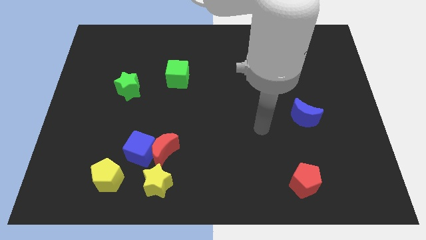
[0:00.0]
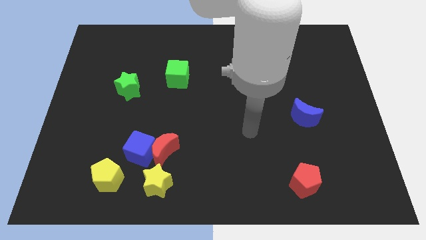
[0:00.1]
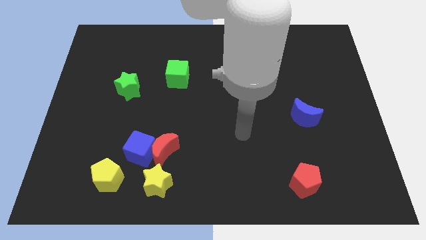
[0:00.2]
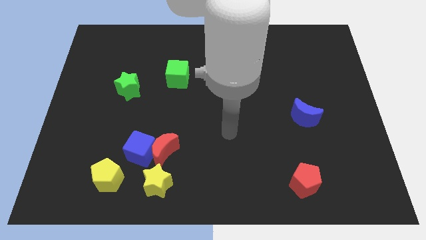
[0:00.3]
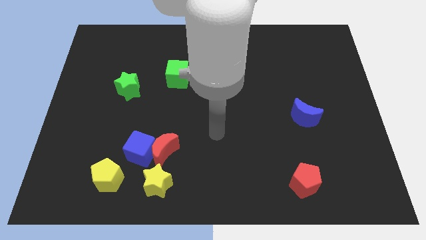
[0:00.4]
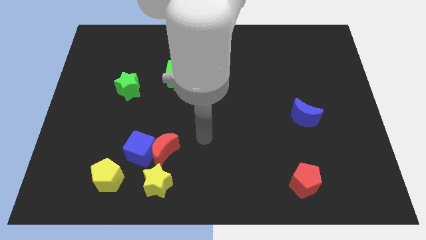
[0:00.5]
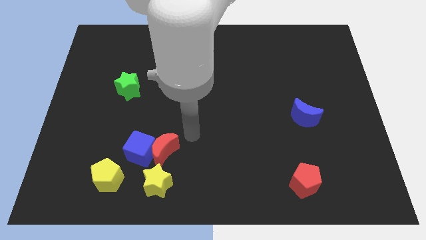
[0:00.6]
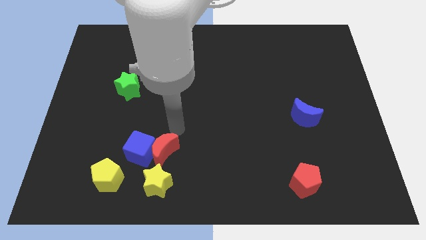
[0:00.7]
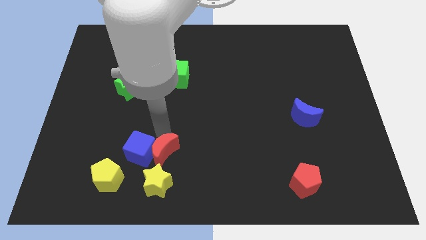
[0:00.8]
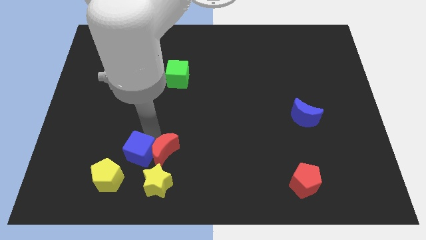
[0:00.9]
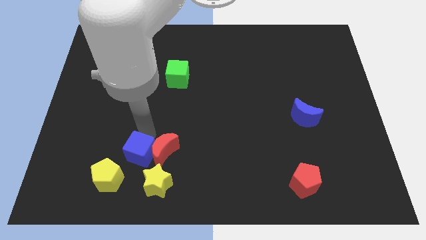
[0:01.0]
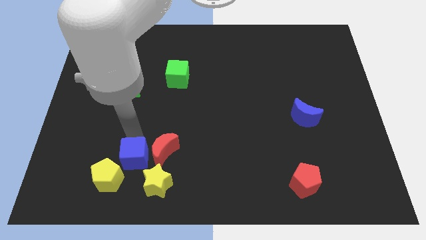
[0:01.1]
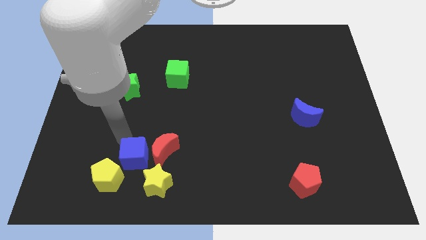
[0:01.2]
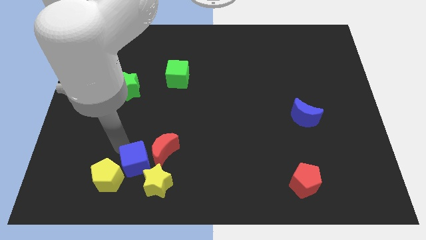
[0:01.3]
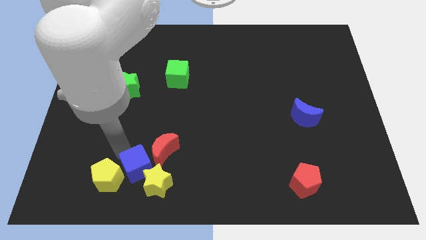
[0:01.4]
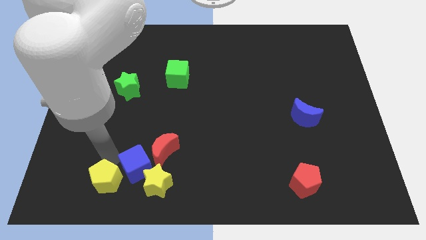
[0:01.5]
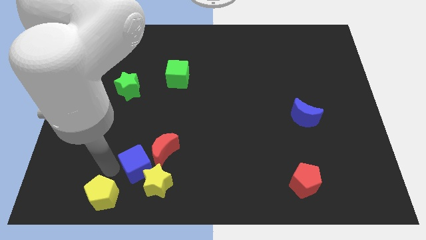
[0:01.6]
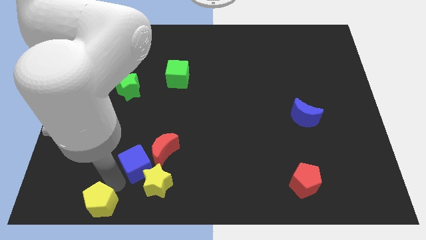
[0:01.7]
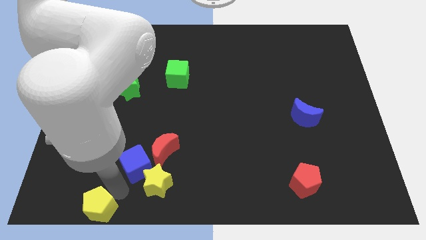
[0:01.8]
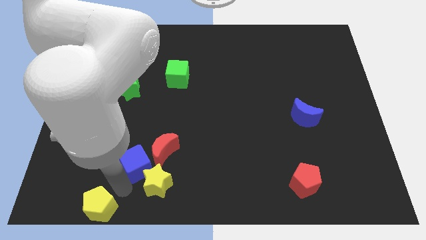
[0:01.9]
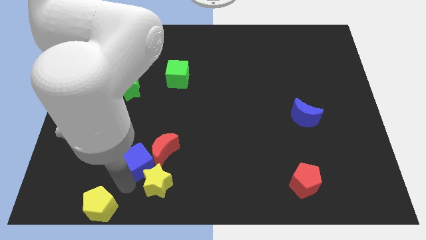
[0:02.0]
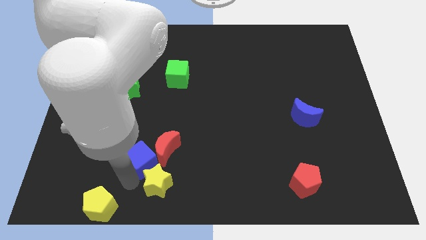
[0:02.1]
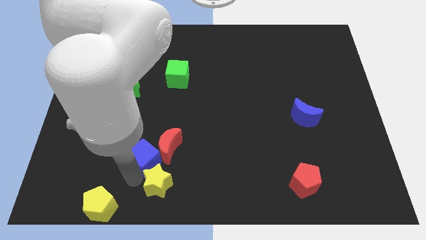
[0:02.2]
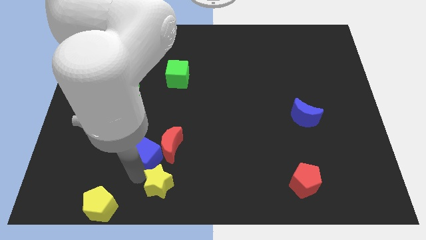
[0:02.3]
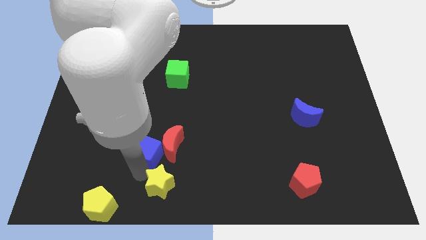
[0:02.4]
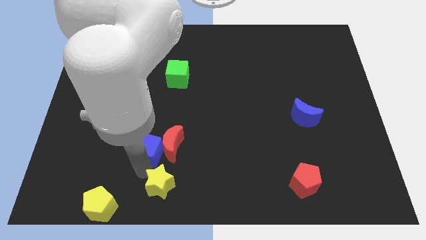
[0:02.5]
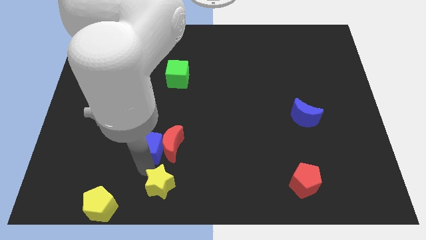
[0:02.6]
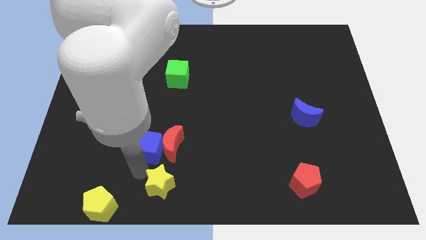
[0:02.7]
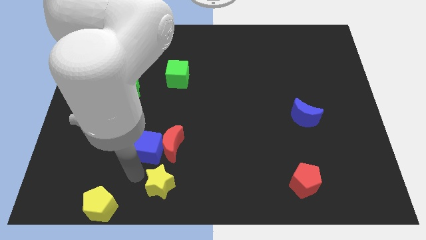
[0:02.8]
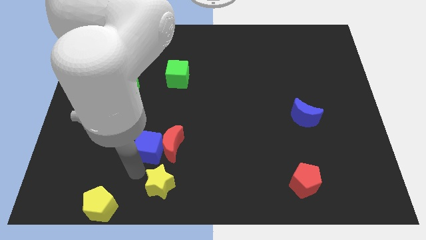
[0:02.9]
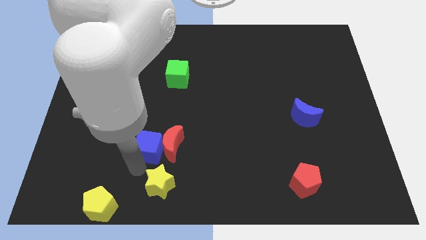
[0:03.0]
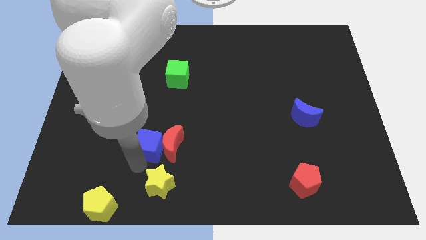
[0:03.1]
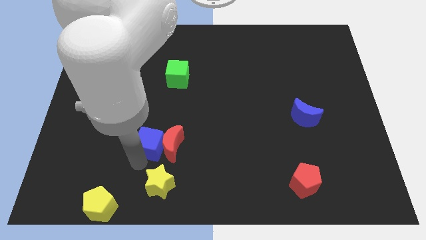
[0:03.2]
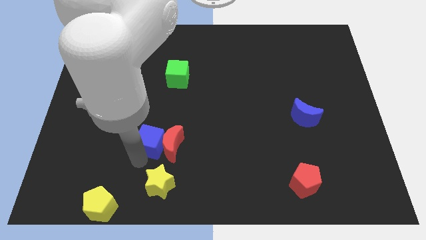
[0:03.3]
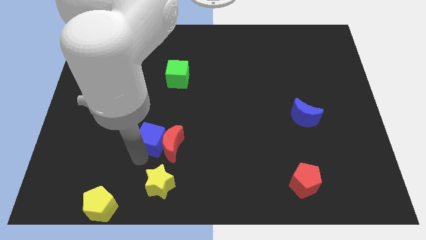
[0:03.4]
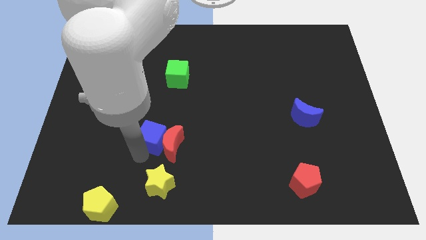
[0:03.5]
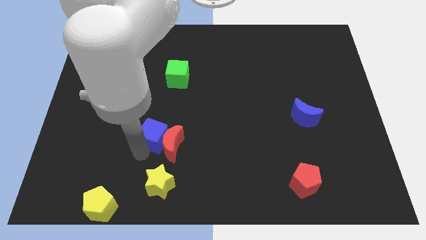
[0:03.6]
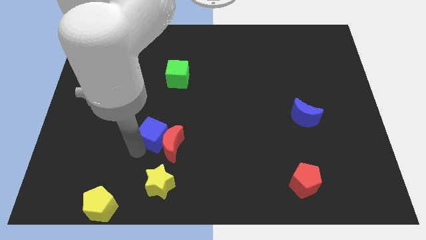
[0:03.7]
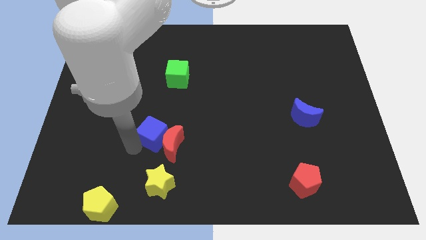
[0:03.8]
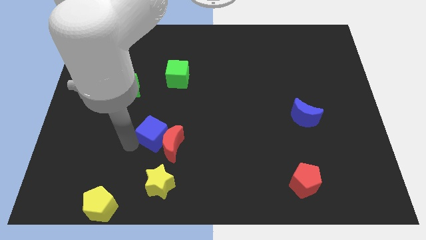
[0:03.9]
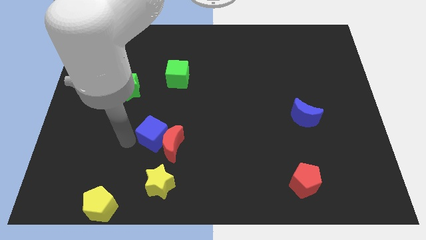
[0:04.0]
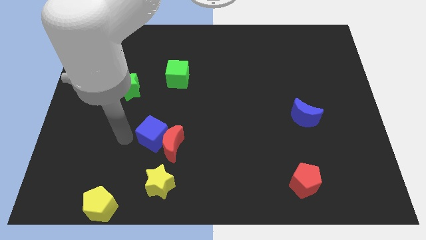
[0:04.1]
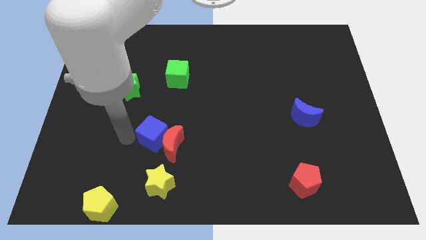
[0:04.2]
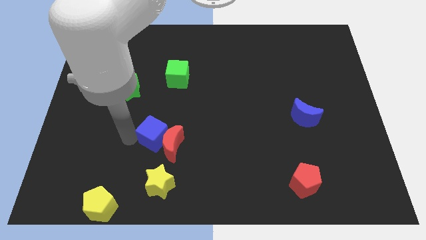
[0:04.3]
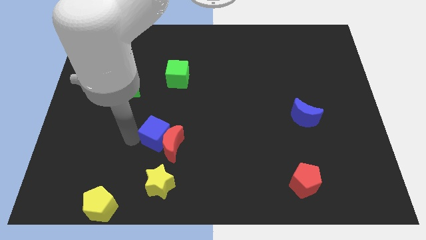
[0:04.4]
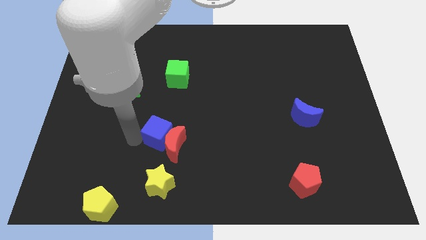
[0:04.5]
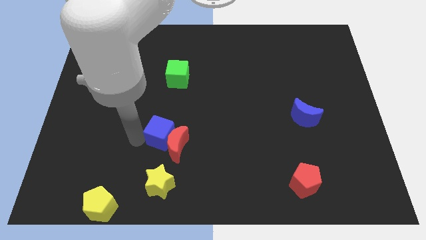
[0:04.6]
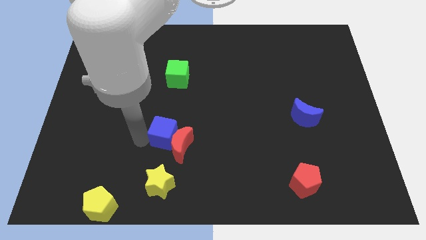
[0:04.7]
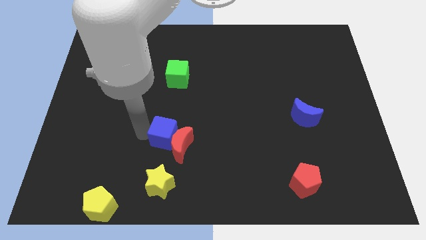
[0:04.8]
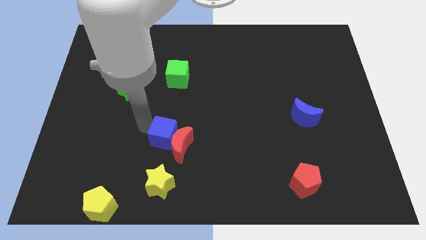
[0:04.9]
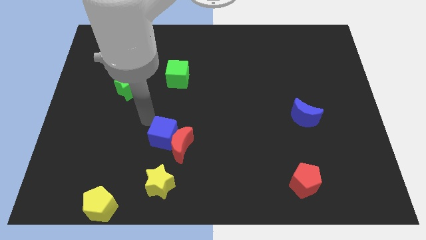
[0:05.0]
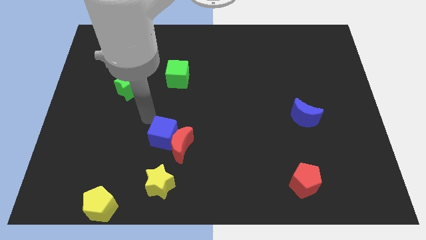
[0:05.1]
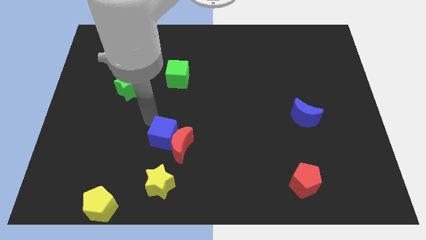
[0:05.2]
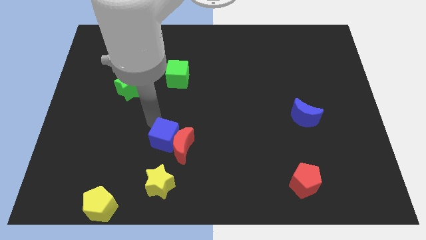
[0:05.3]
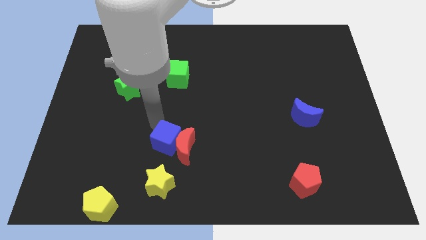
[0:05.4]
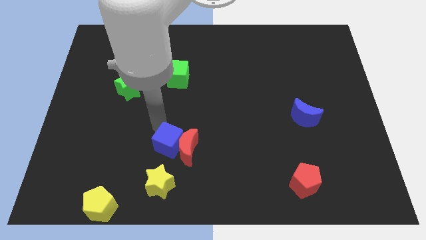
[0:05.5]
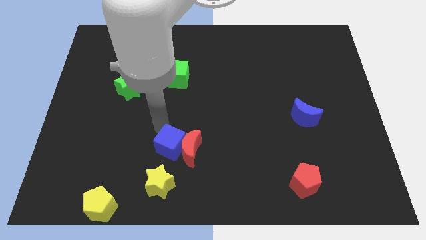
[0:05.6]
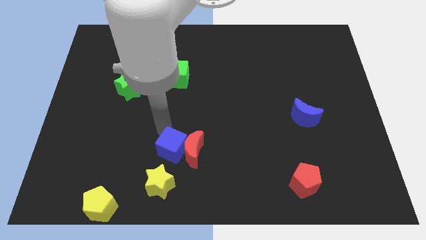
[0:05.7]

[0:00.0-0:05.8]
put the blue cube diagonally up and to the right of the yellow star
